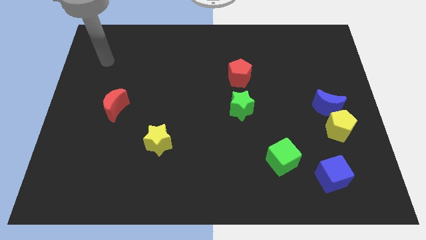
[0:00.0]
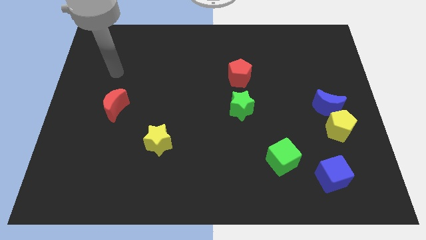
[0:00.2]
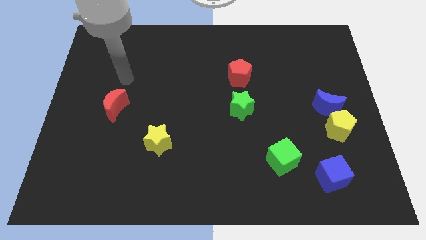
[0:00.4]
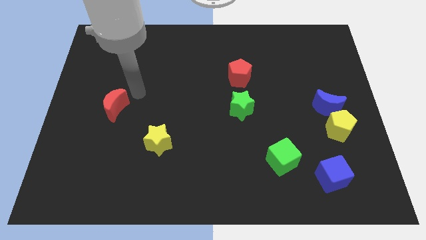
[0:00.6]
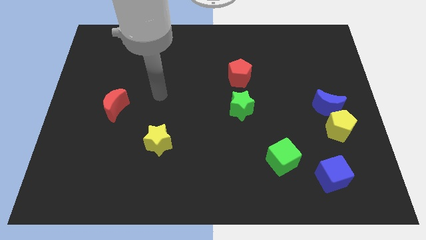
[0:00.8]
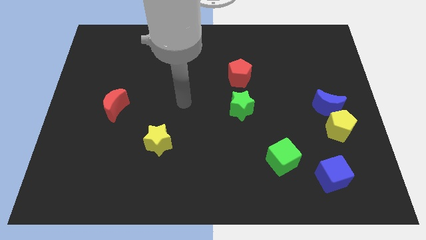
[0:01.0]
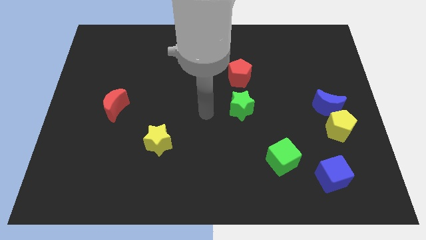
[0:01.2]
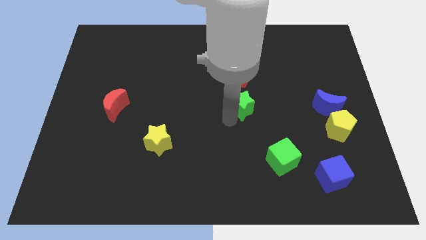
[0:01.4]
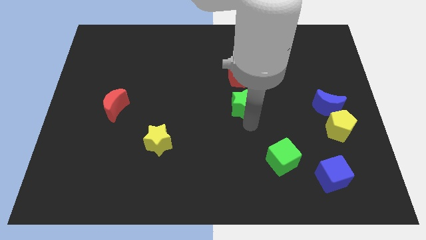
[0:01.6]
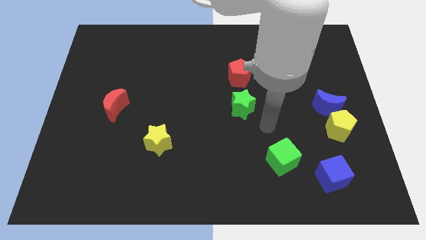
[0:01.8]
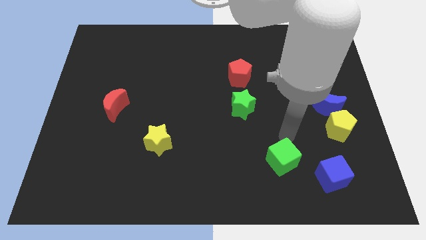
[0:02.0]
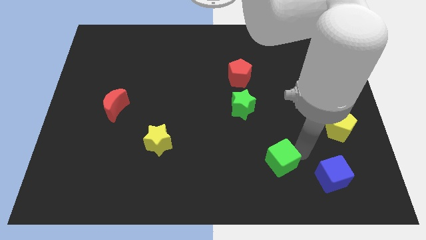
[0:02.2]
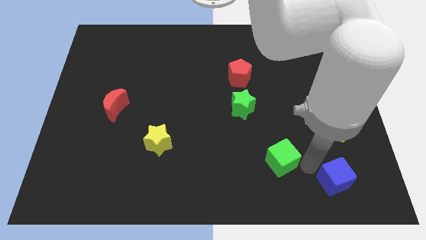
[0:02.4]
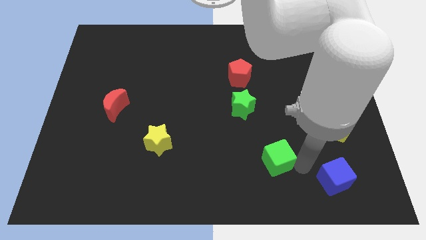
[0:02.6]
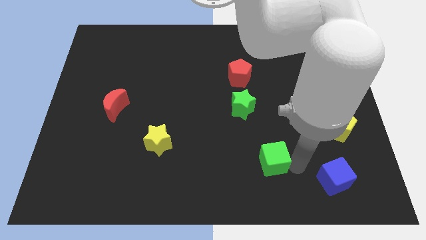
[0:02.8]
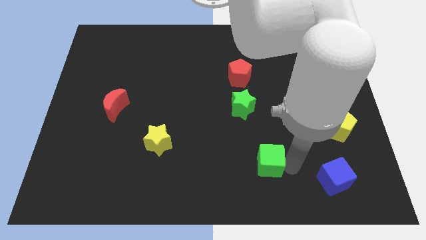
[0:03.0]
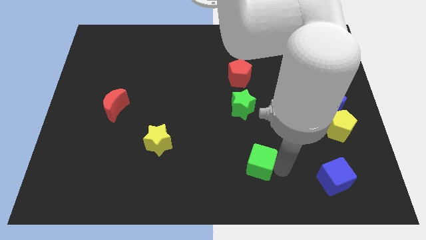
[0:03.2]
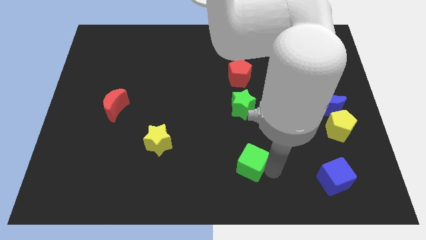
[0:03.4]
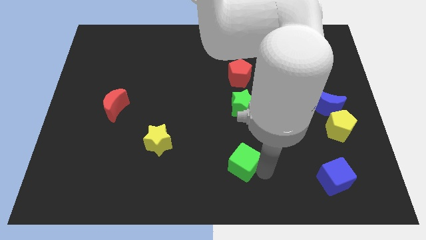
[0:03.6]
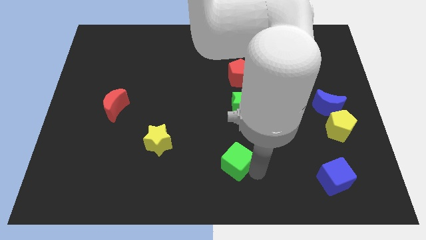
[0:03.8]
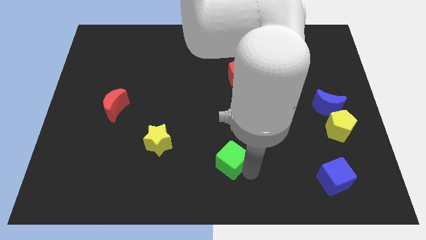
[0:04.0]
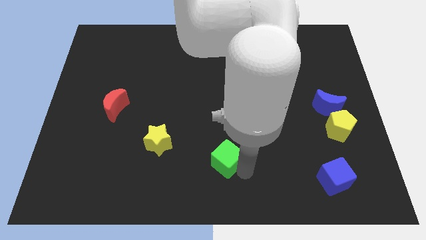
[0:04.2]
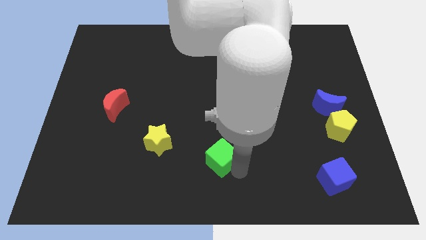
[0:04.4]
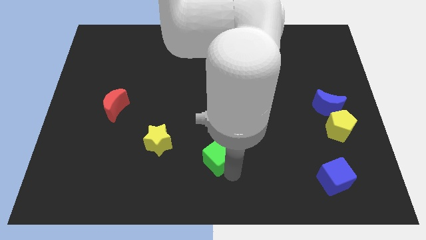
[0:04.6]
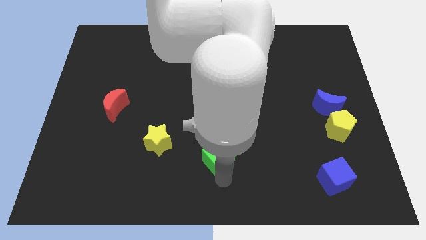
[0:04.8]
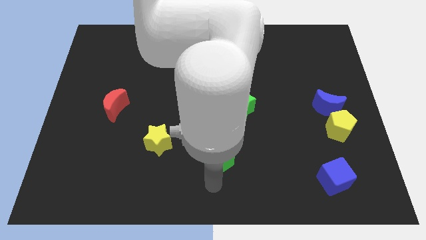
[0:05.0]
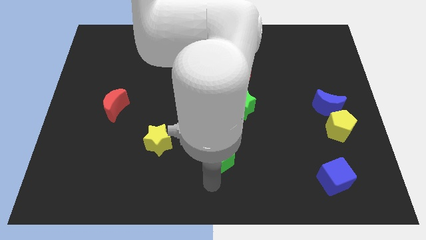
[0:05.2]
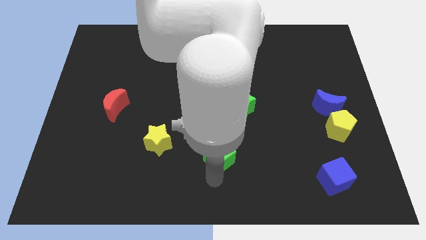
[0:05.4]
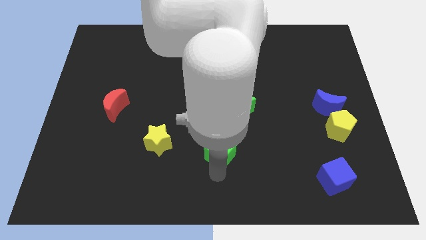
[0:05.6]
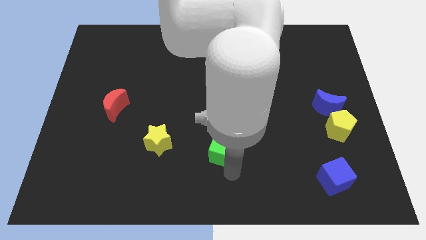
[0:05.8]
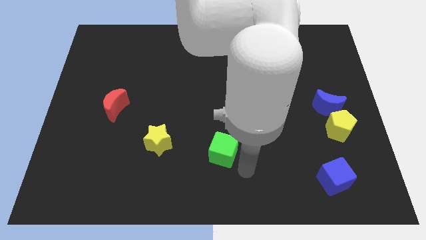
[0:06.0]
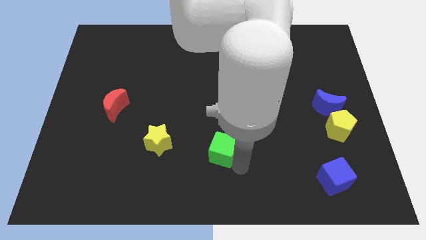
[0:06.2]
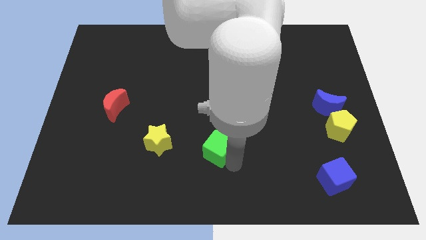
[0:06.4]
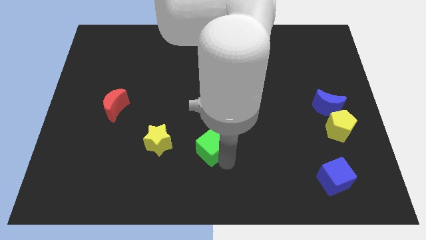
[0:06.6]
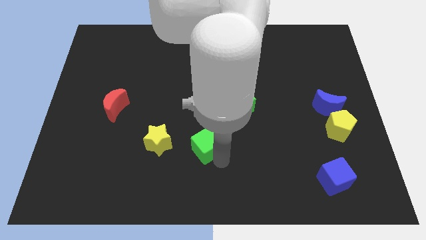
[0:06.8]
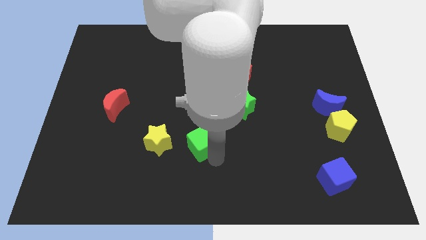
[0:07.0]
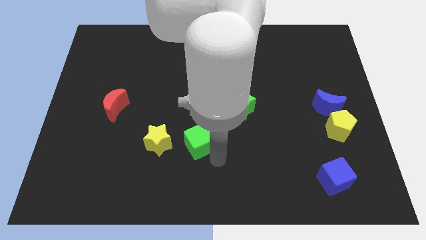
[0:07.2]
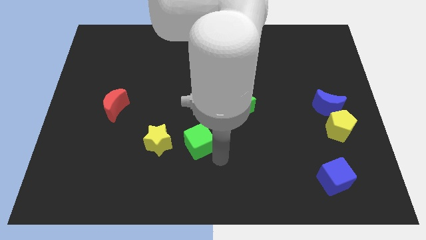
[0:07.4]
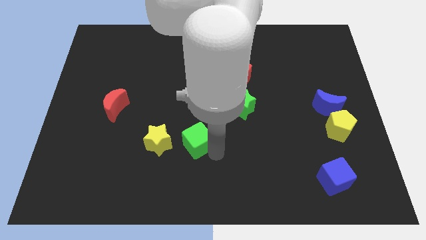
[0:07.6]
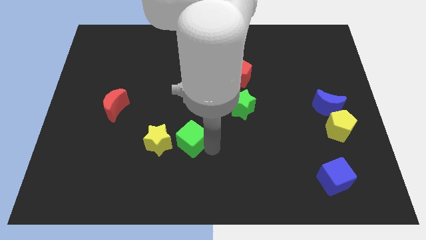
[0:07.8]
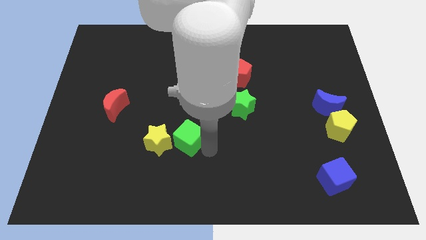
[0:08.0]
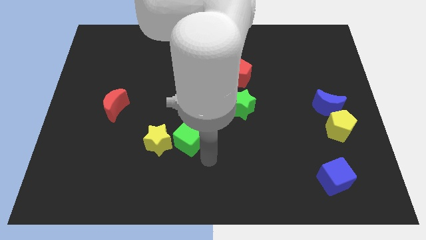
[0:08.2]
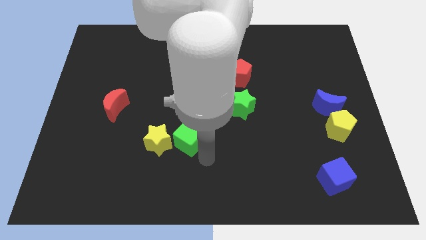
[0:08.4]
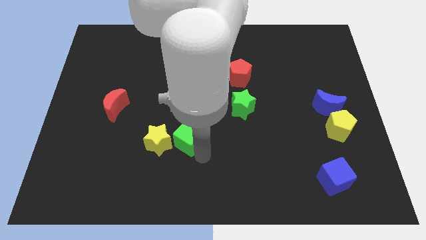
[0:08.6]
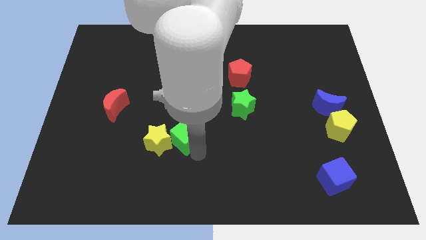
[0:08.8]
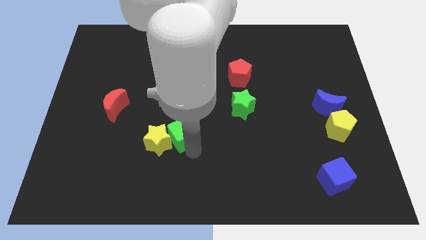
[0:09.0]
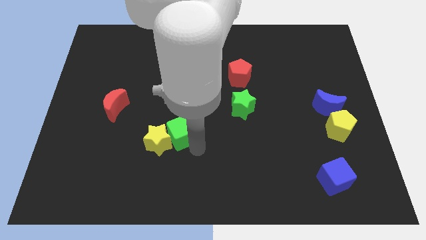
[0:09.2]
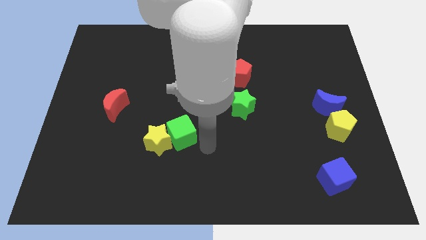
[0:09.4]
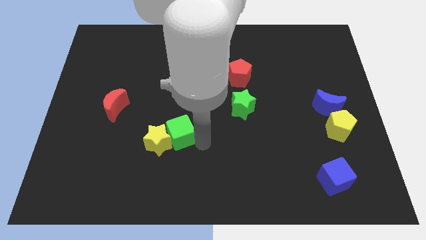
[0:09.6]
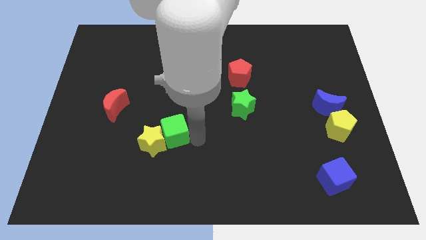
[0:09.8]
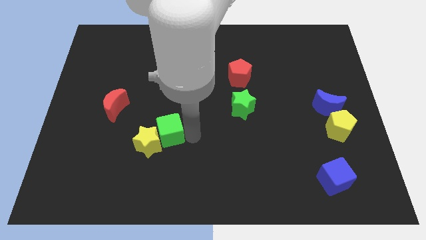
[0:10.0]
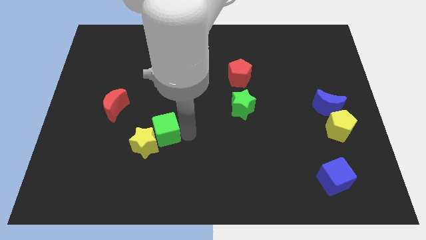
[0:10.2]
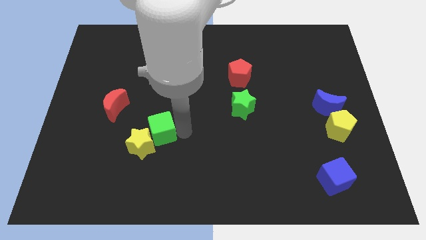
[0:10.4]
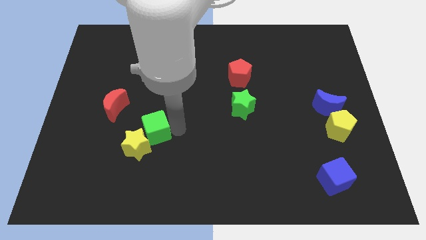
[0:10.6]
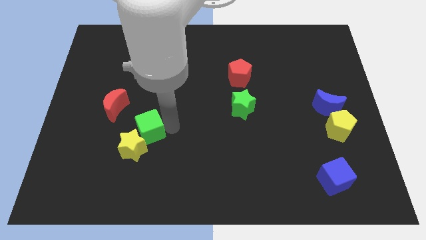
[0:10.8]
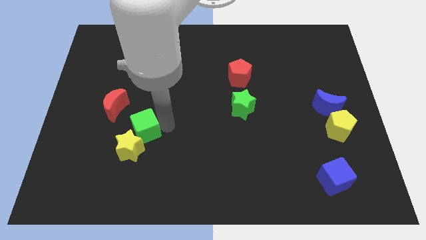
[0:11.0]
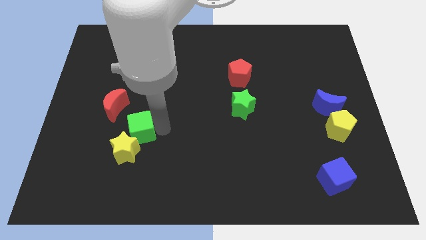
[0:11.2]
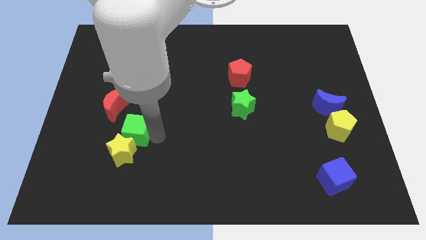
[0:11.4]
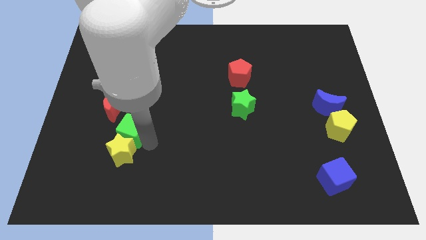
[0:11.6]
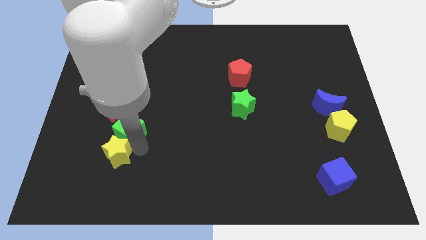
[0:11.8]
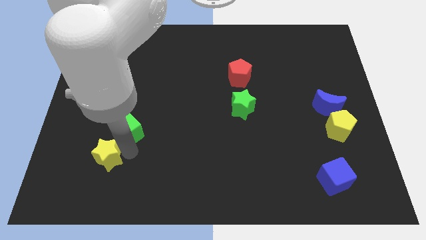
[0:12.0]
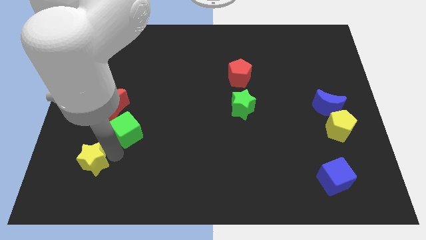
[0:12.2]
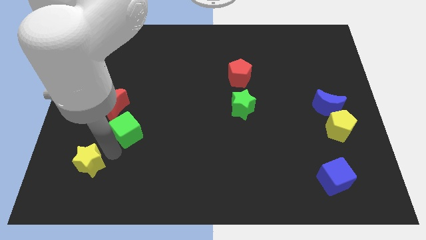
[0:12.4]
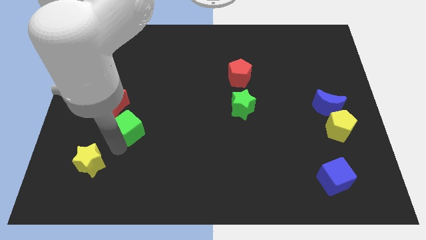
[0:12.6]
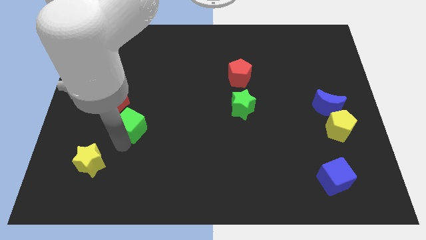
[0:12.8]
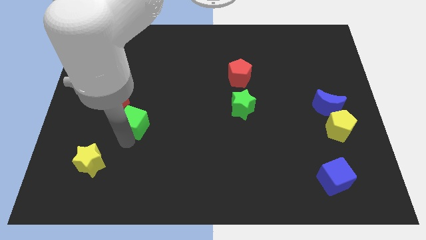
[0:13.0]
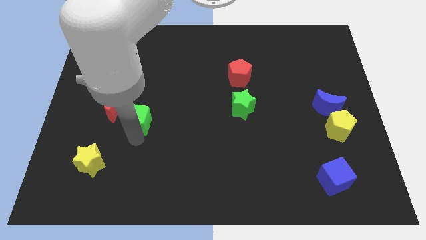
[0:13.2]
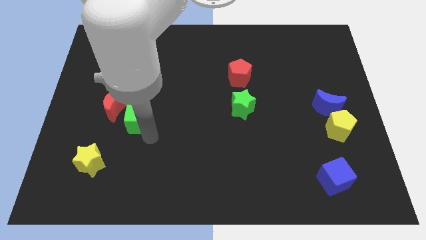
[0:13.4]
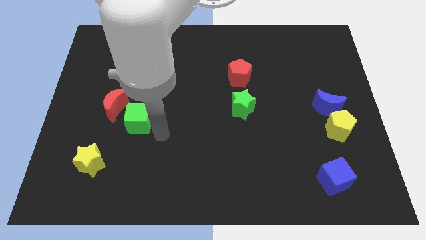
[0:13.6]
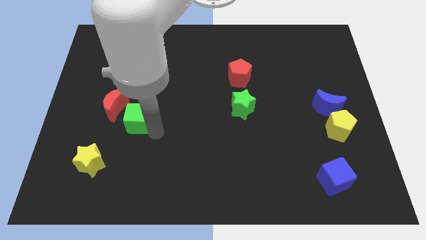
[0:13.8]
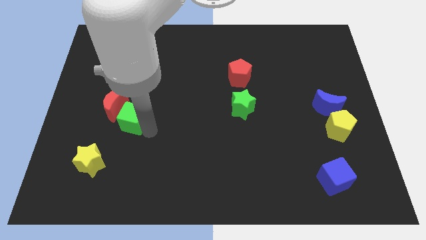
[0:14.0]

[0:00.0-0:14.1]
put the green cube to the red moon
